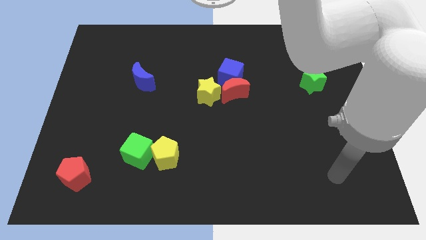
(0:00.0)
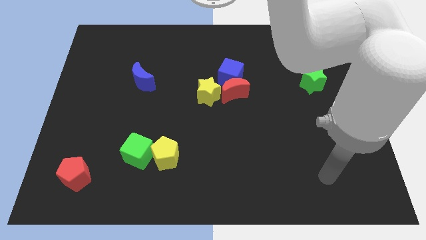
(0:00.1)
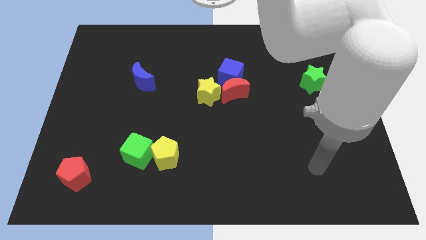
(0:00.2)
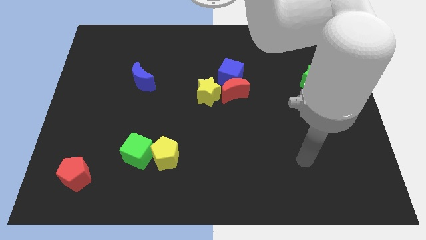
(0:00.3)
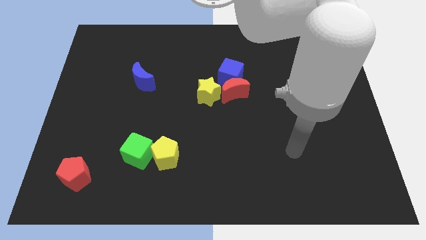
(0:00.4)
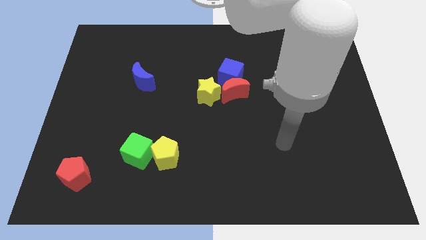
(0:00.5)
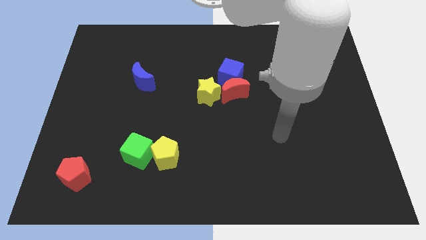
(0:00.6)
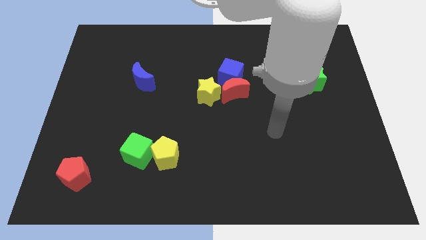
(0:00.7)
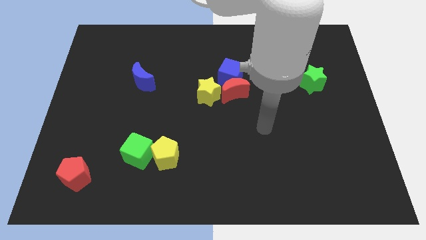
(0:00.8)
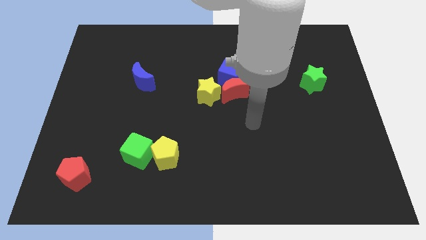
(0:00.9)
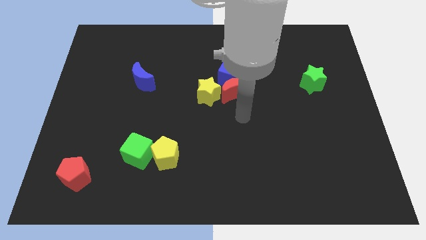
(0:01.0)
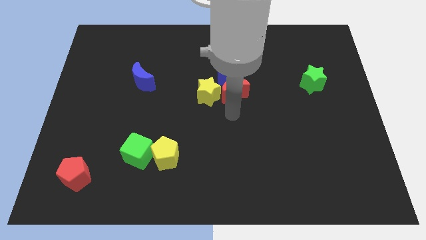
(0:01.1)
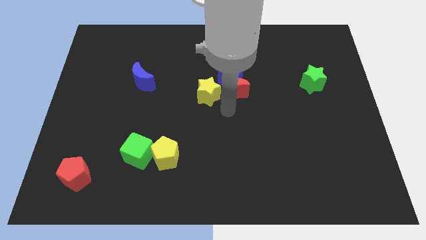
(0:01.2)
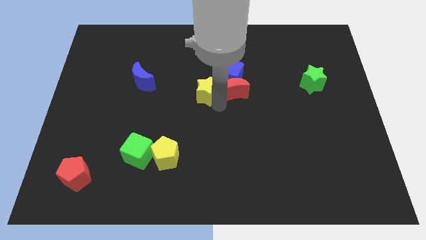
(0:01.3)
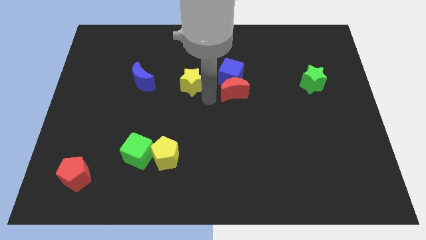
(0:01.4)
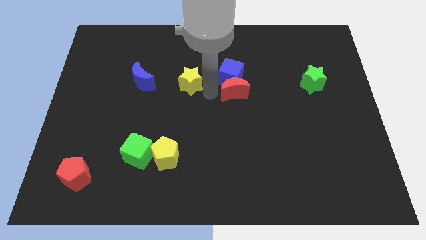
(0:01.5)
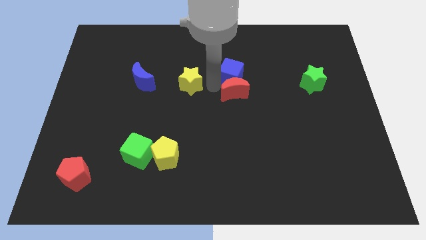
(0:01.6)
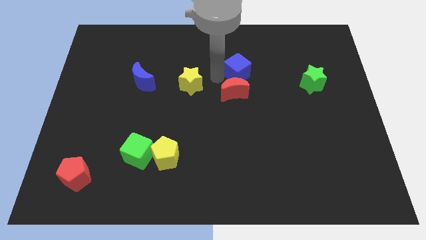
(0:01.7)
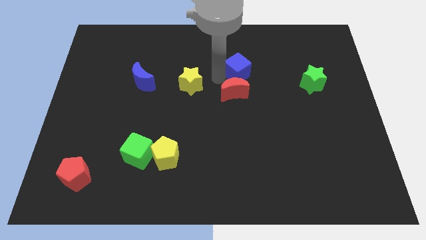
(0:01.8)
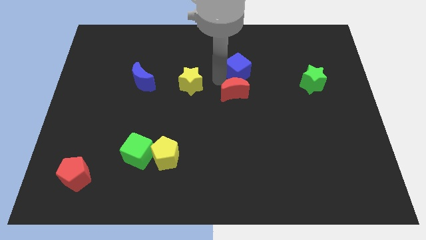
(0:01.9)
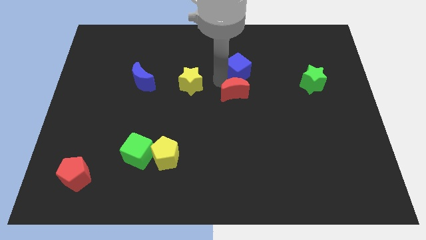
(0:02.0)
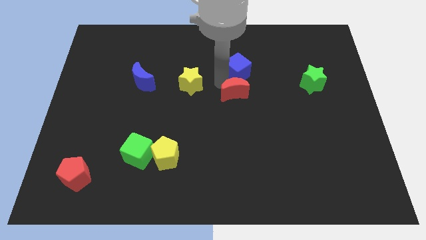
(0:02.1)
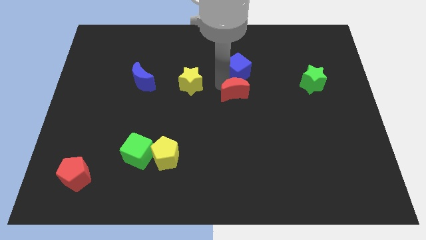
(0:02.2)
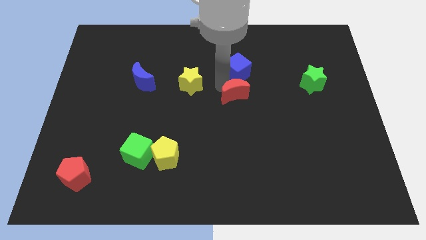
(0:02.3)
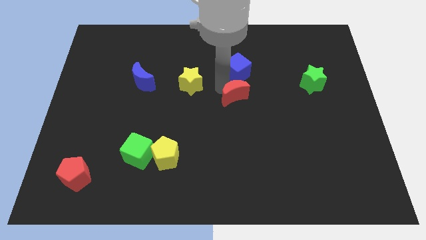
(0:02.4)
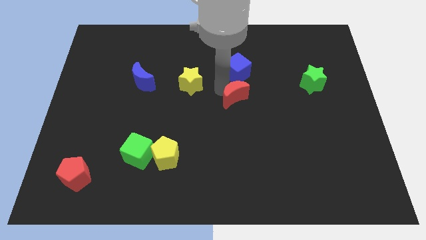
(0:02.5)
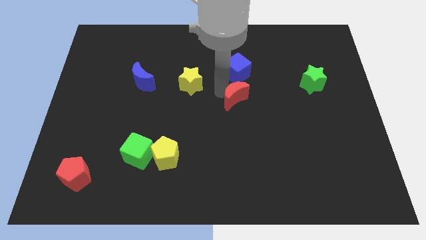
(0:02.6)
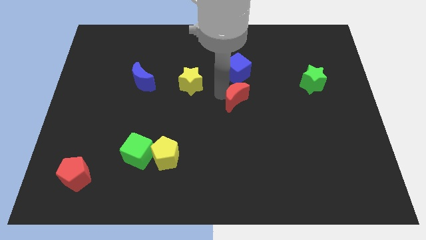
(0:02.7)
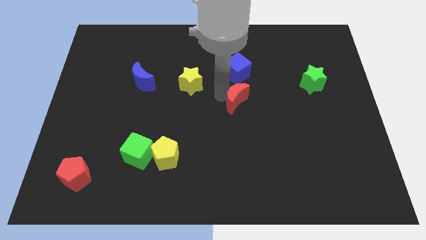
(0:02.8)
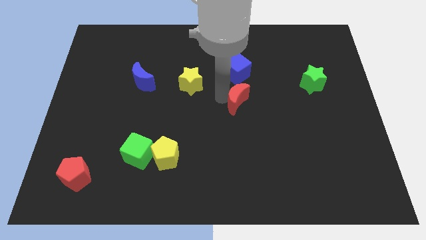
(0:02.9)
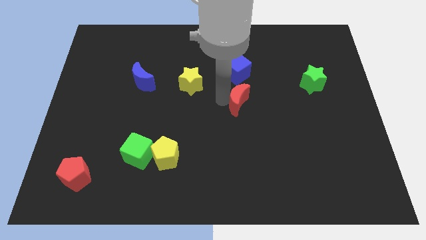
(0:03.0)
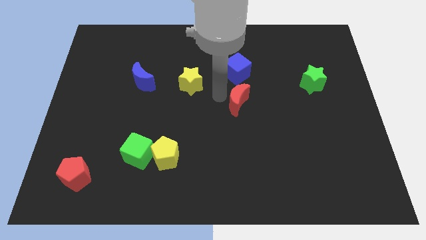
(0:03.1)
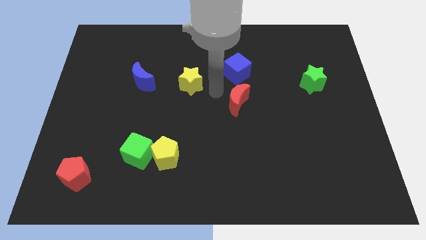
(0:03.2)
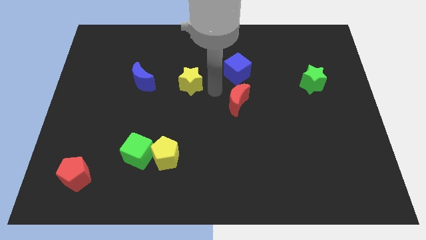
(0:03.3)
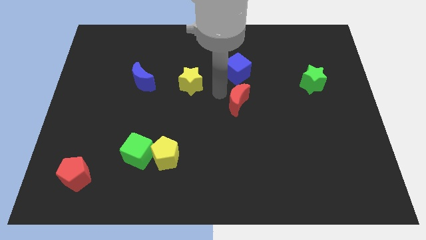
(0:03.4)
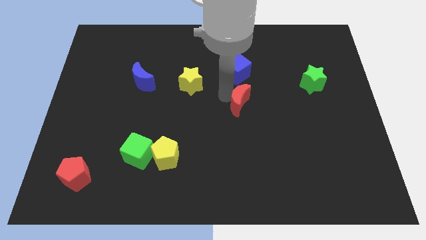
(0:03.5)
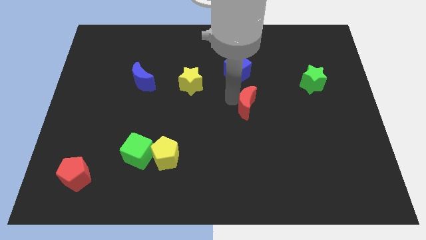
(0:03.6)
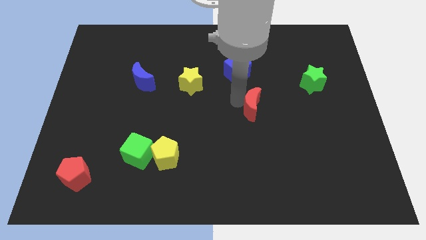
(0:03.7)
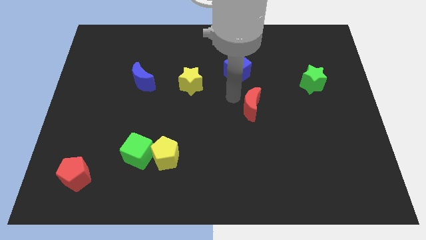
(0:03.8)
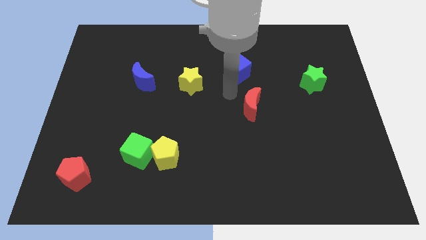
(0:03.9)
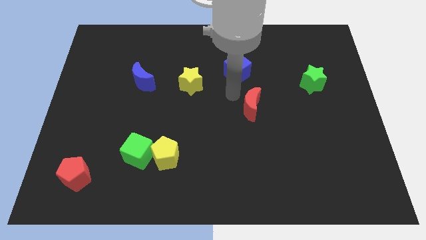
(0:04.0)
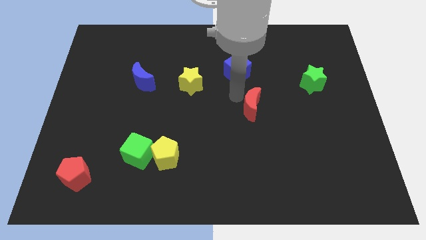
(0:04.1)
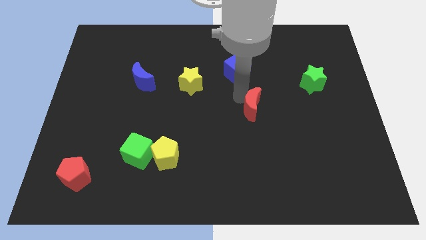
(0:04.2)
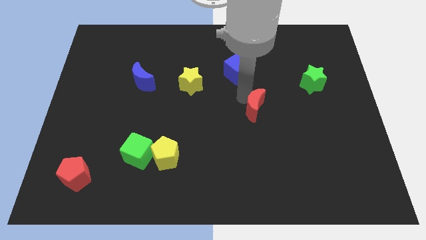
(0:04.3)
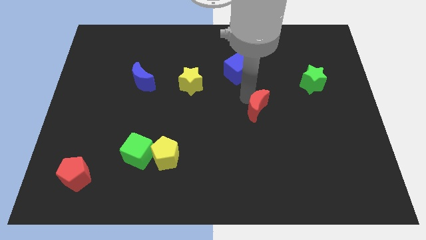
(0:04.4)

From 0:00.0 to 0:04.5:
slide the red moon downwards and right a little bit

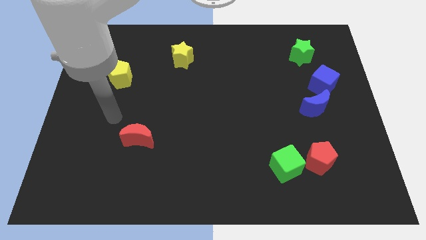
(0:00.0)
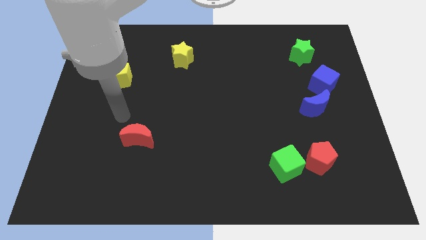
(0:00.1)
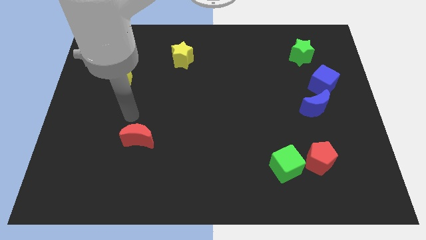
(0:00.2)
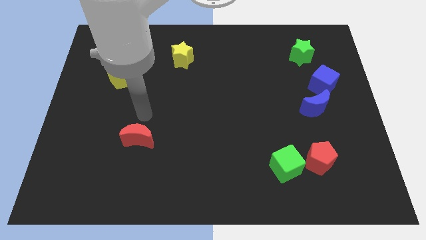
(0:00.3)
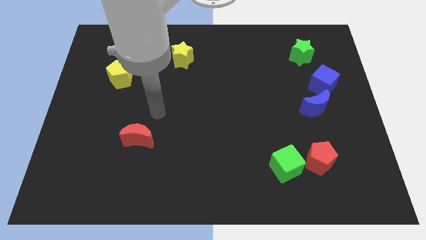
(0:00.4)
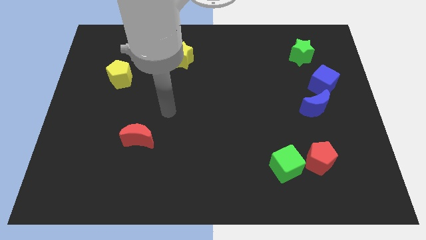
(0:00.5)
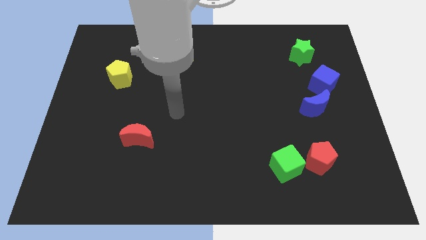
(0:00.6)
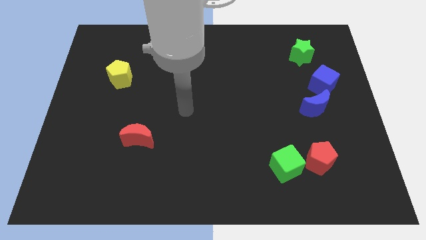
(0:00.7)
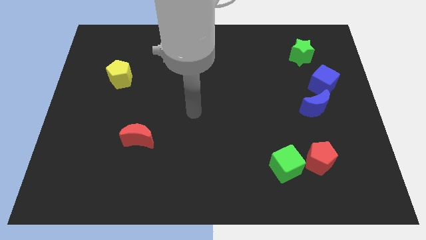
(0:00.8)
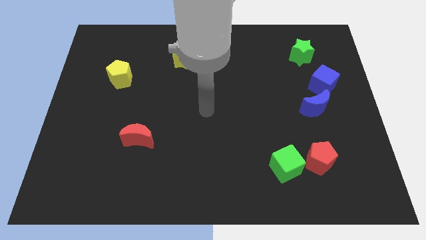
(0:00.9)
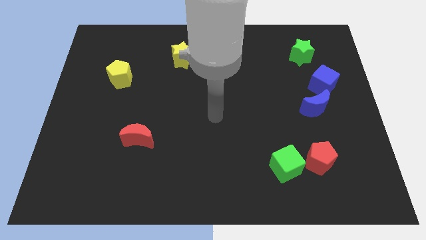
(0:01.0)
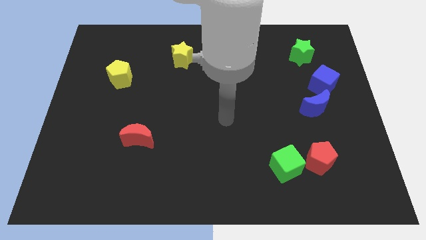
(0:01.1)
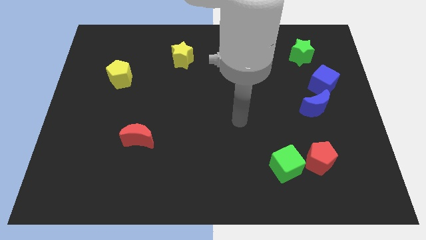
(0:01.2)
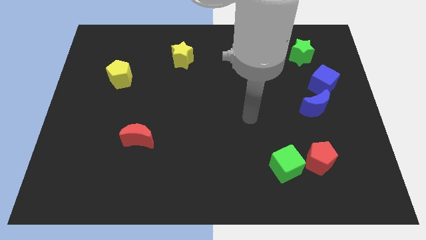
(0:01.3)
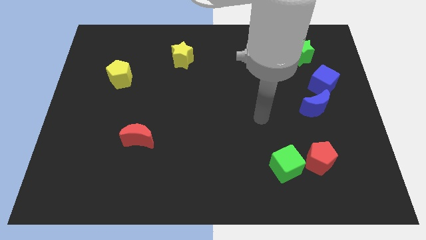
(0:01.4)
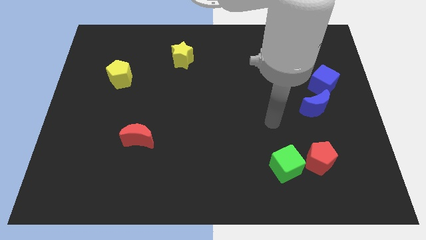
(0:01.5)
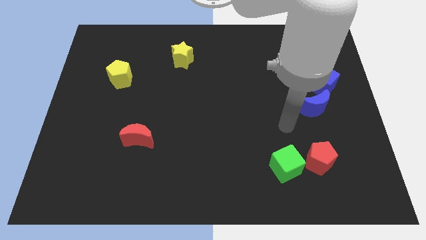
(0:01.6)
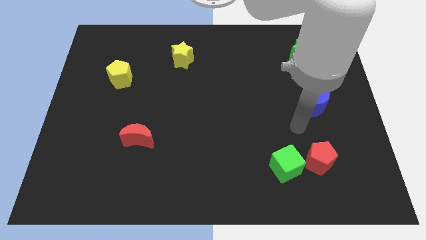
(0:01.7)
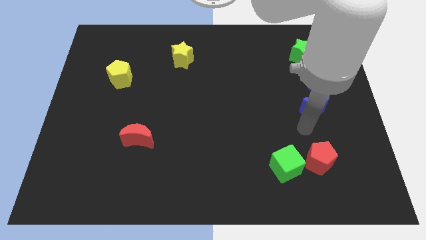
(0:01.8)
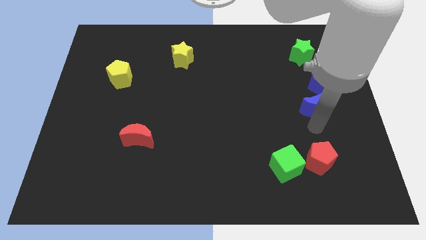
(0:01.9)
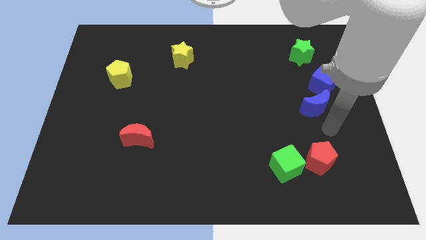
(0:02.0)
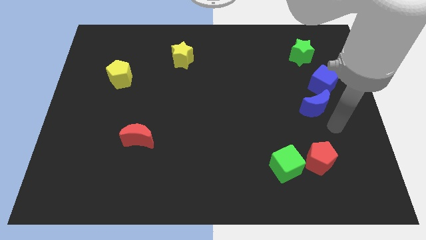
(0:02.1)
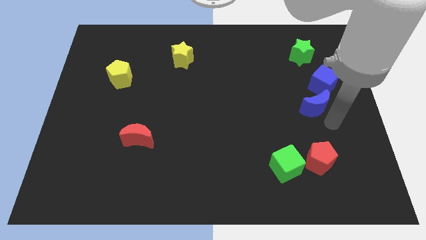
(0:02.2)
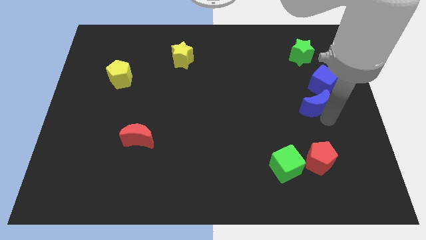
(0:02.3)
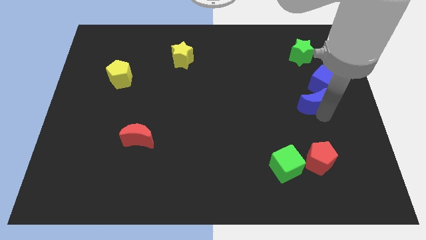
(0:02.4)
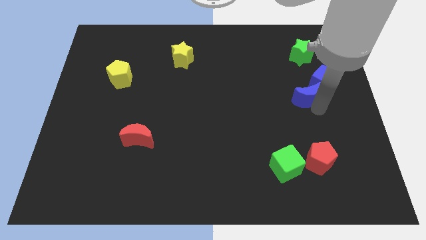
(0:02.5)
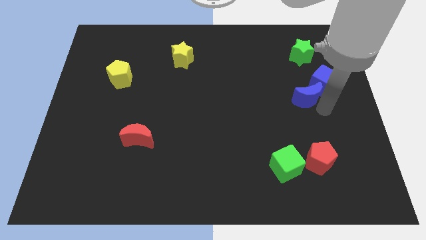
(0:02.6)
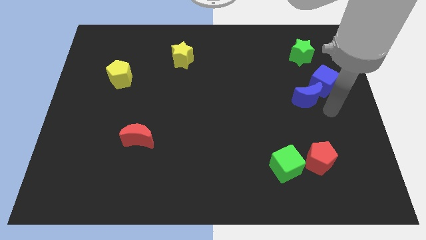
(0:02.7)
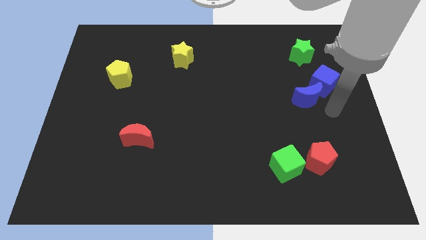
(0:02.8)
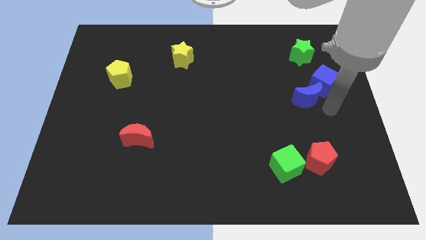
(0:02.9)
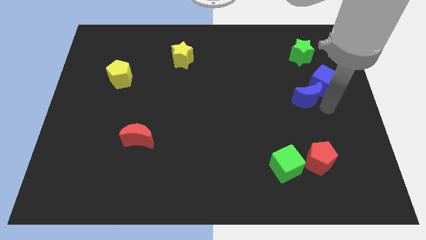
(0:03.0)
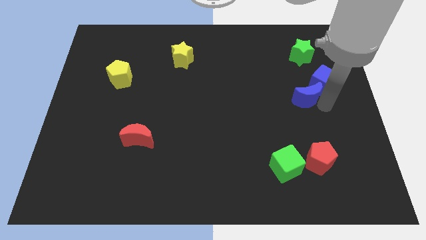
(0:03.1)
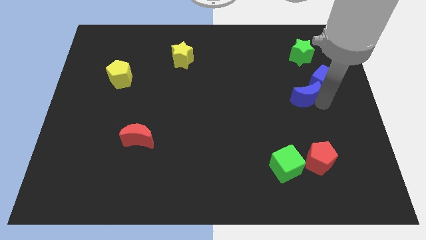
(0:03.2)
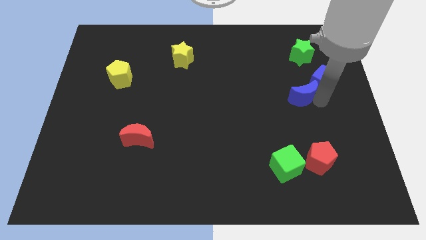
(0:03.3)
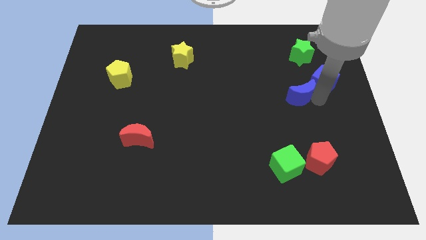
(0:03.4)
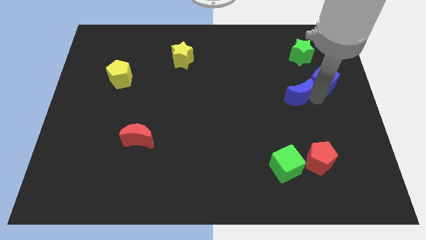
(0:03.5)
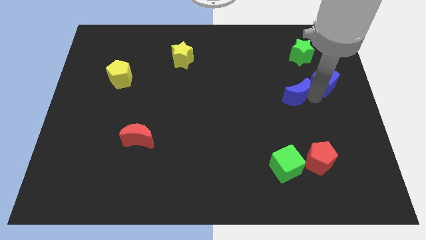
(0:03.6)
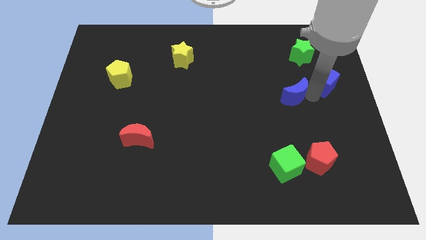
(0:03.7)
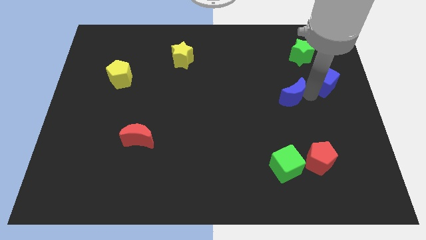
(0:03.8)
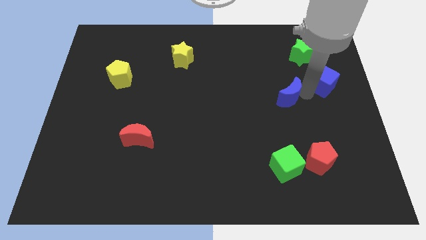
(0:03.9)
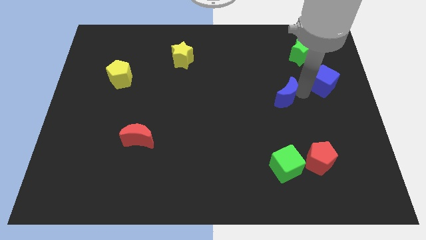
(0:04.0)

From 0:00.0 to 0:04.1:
move the blue moon a little upwards and to the left
